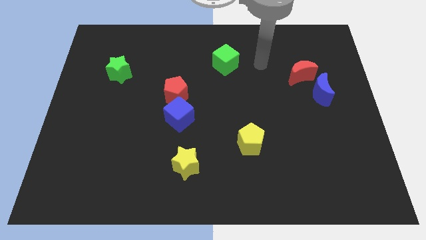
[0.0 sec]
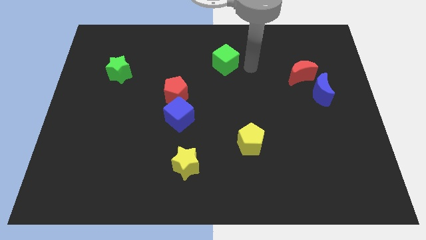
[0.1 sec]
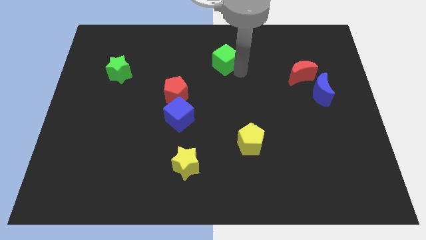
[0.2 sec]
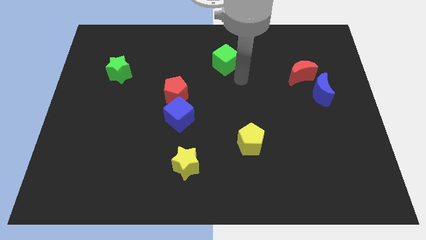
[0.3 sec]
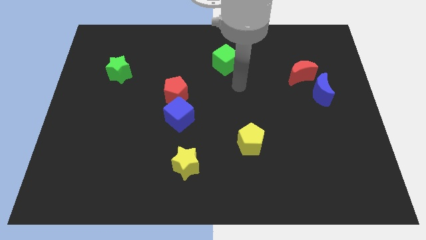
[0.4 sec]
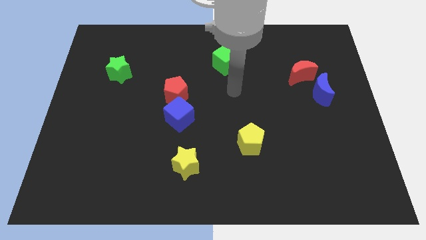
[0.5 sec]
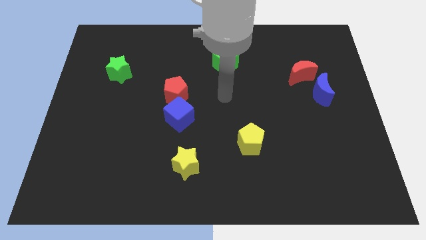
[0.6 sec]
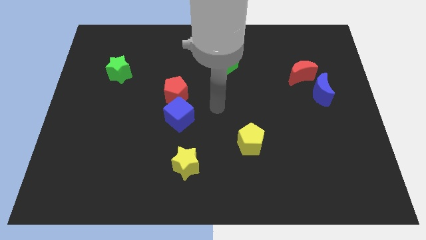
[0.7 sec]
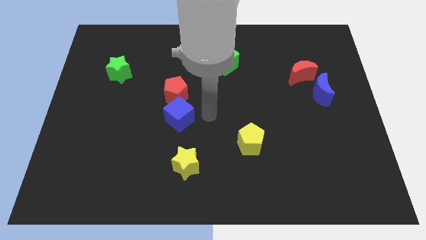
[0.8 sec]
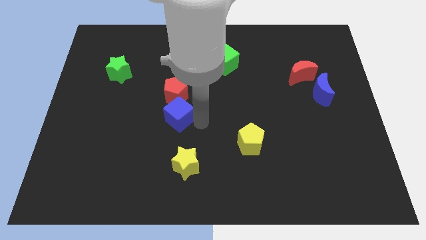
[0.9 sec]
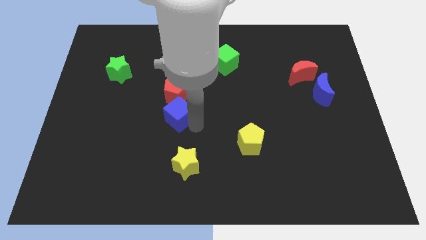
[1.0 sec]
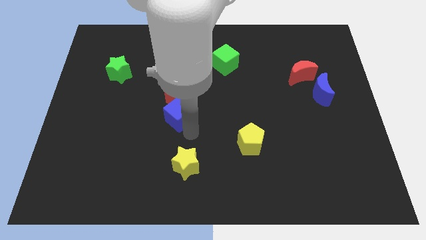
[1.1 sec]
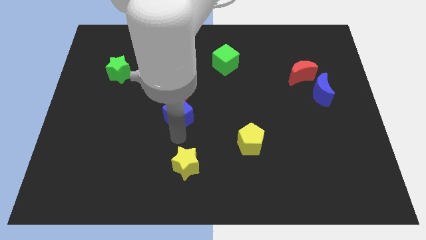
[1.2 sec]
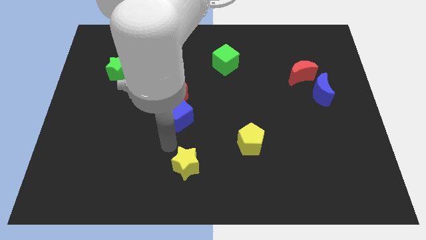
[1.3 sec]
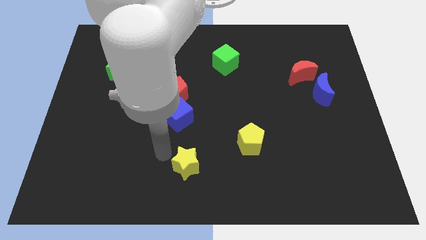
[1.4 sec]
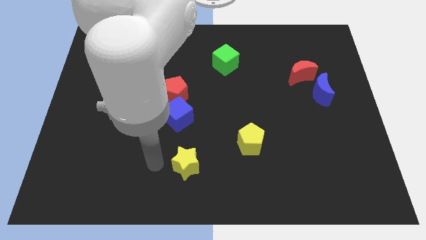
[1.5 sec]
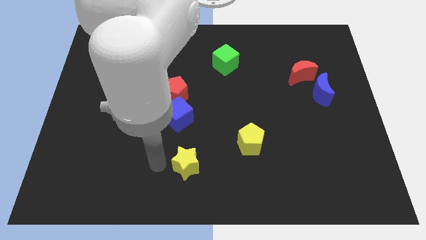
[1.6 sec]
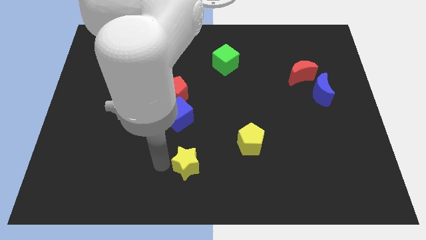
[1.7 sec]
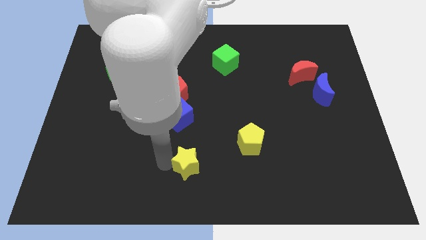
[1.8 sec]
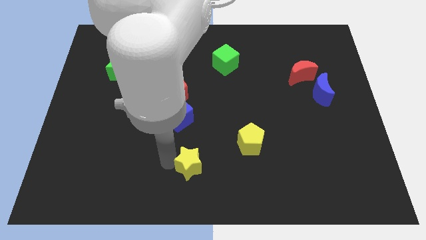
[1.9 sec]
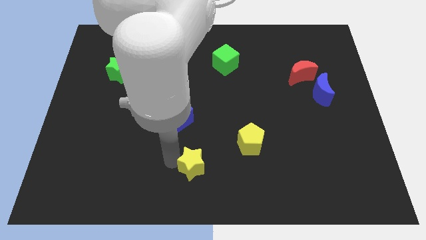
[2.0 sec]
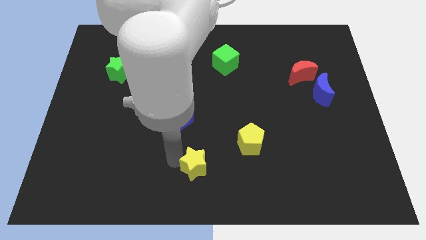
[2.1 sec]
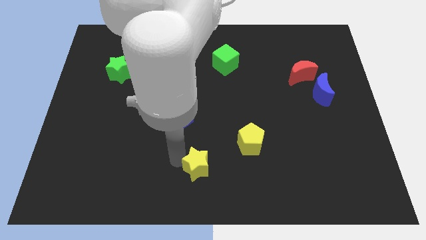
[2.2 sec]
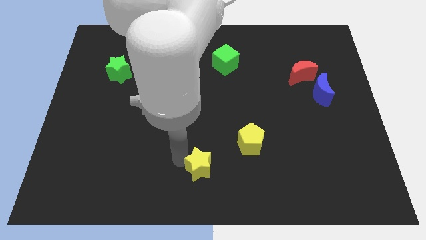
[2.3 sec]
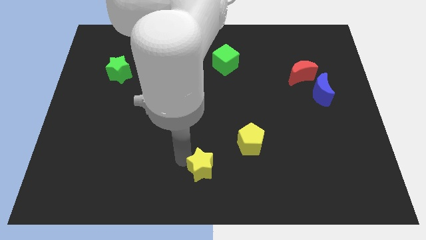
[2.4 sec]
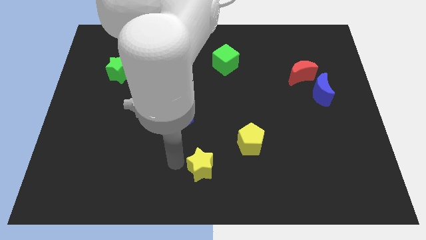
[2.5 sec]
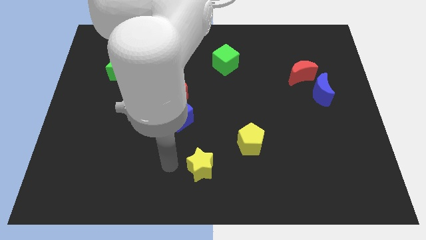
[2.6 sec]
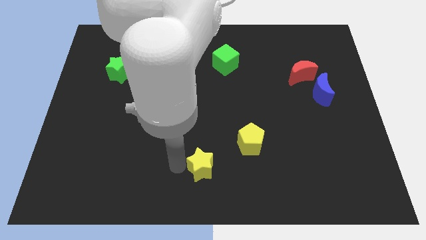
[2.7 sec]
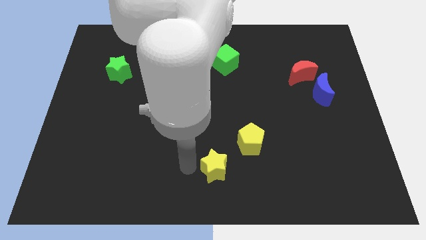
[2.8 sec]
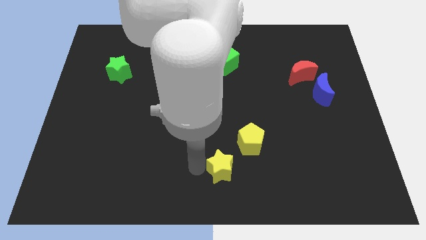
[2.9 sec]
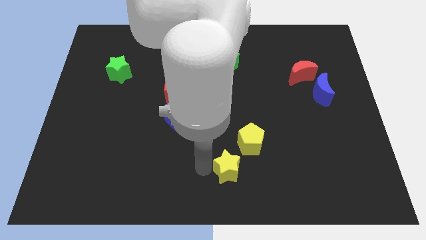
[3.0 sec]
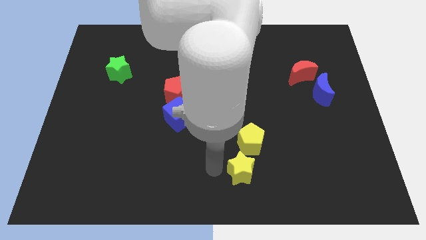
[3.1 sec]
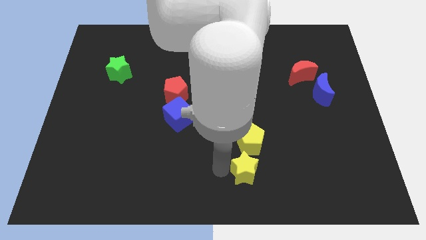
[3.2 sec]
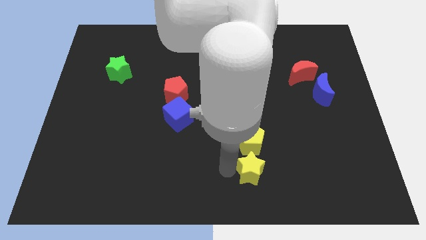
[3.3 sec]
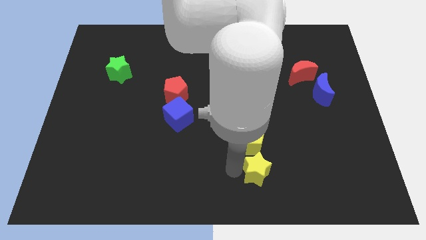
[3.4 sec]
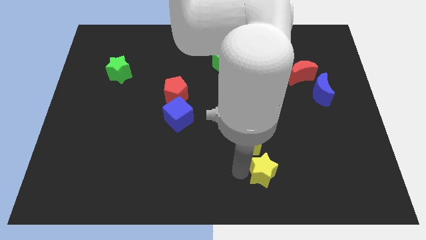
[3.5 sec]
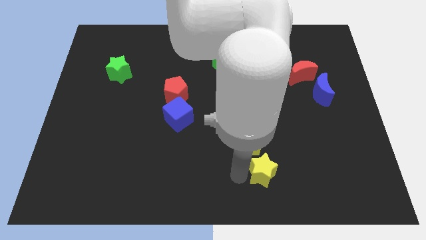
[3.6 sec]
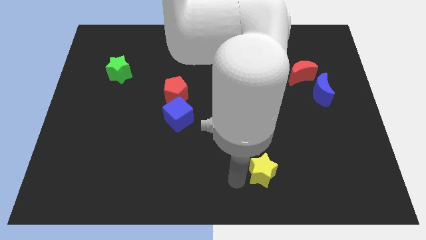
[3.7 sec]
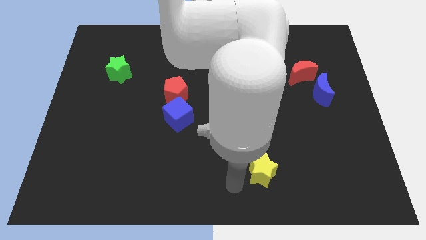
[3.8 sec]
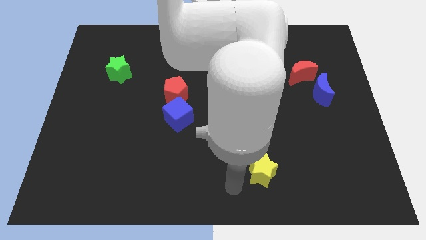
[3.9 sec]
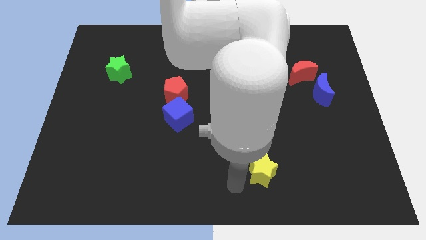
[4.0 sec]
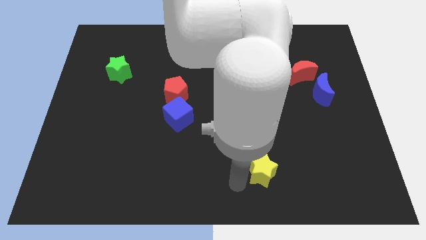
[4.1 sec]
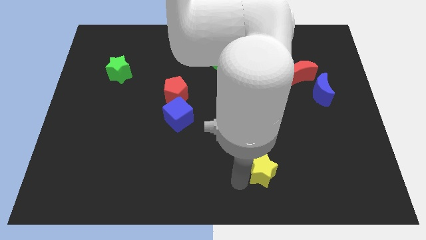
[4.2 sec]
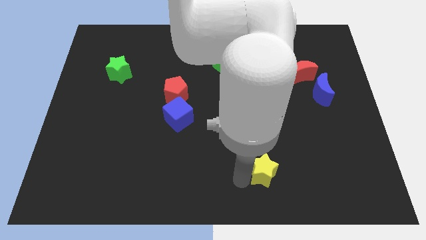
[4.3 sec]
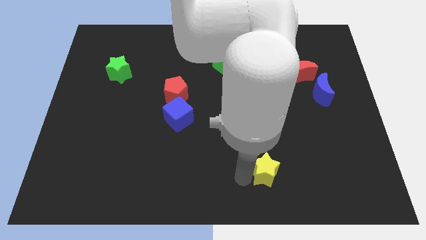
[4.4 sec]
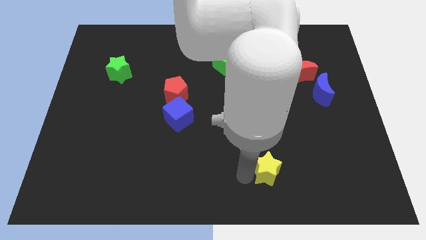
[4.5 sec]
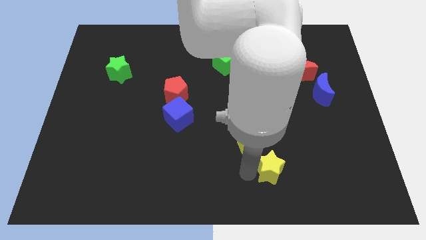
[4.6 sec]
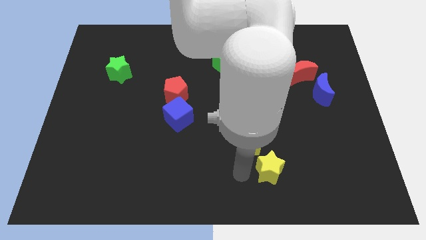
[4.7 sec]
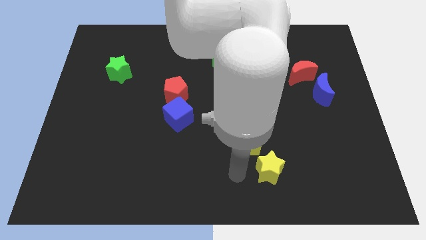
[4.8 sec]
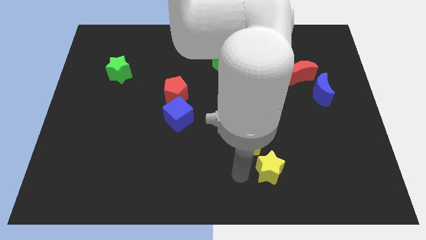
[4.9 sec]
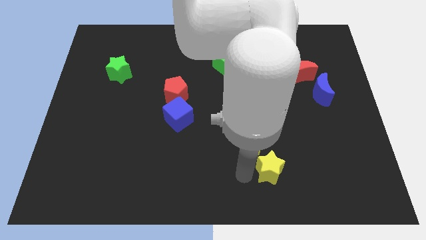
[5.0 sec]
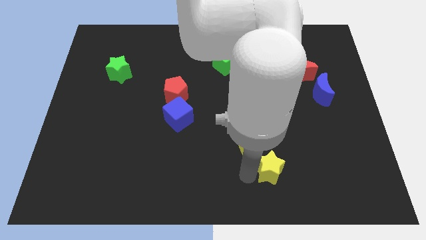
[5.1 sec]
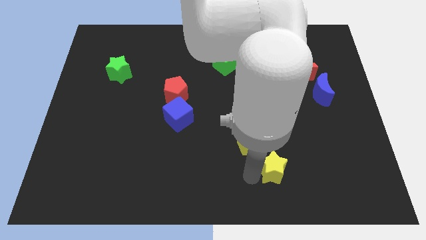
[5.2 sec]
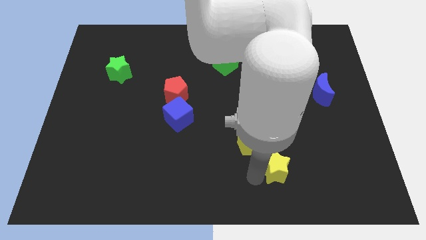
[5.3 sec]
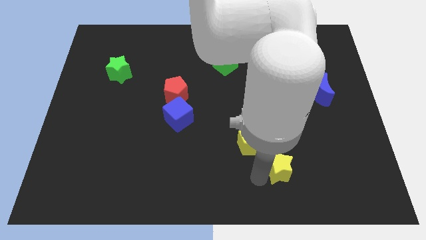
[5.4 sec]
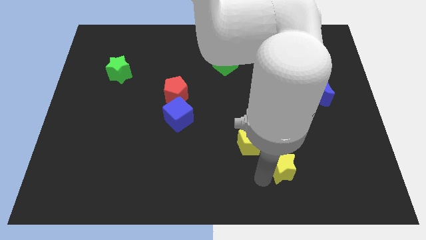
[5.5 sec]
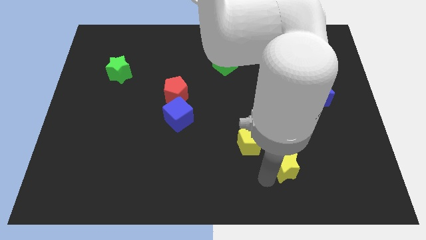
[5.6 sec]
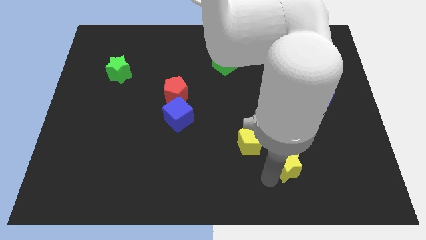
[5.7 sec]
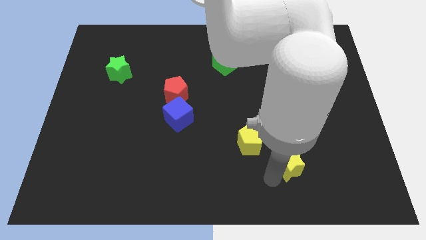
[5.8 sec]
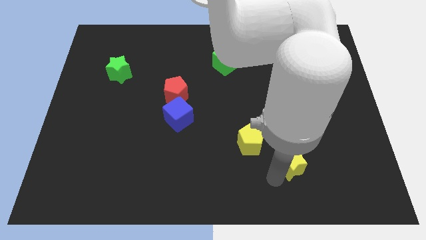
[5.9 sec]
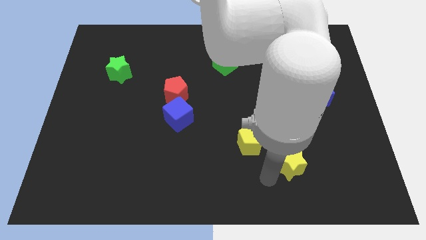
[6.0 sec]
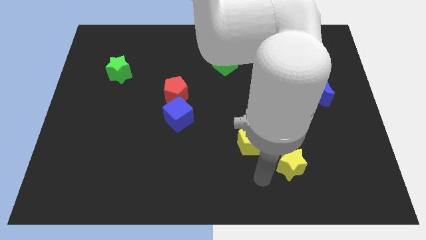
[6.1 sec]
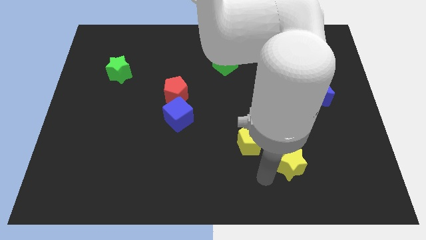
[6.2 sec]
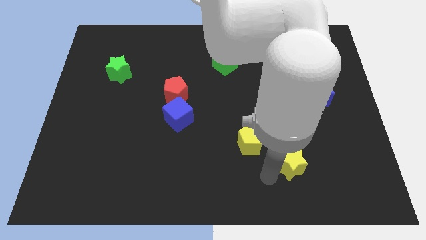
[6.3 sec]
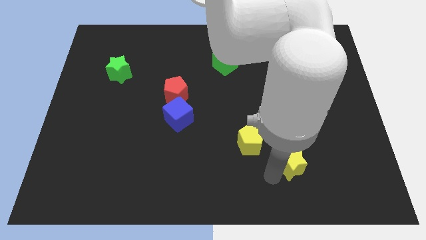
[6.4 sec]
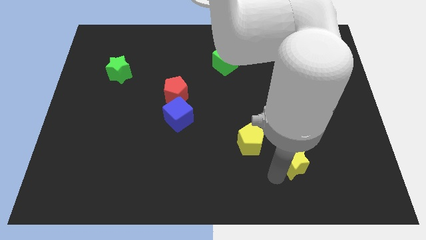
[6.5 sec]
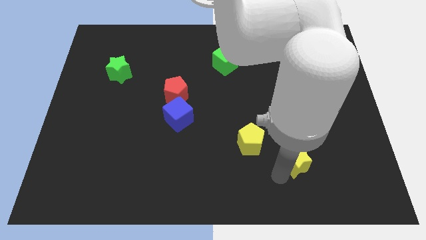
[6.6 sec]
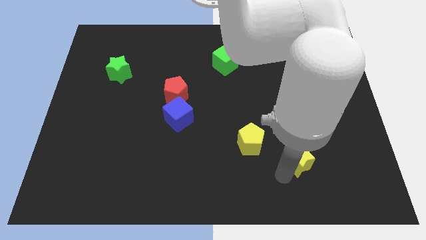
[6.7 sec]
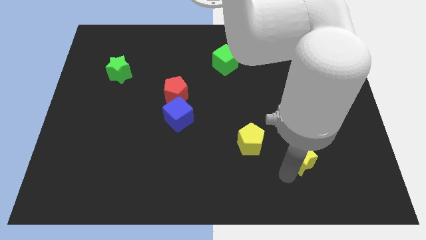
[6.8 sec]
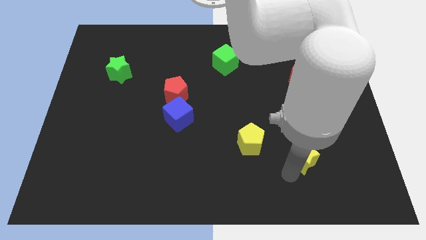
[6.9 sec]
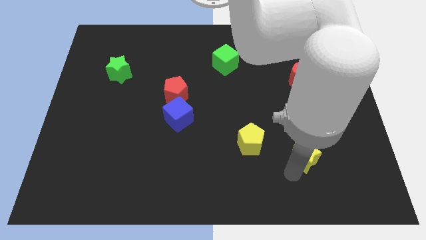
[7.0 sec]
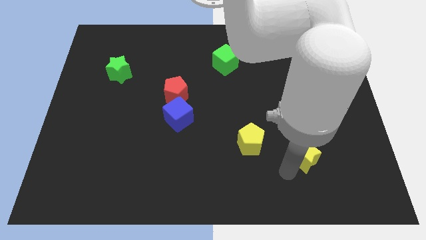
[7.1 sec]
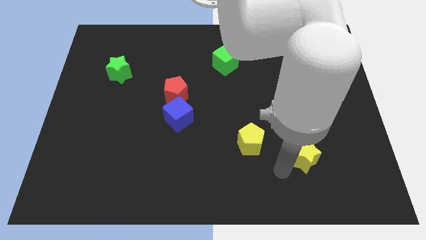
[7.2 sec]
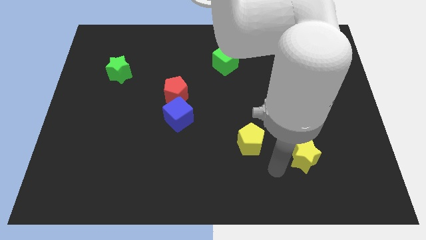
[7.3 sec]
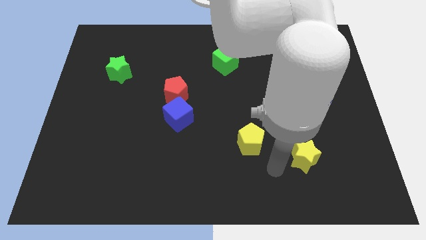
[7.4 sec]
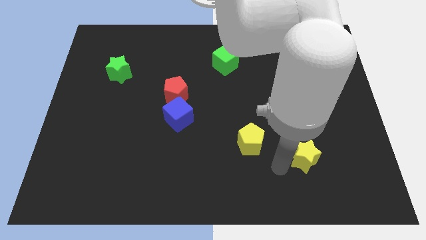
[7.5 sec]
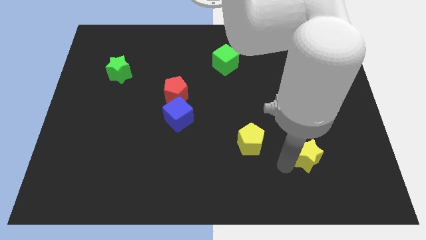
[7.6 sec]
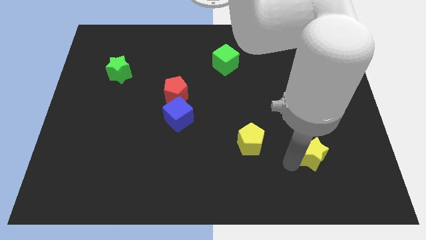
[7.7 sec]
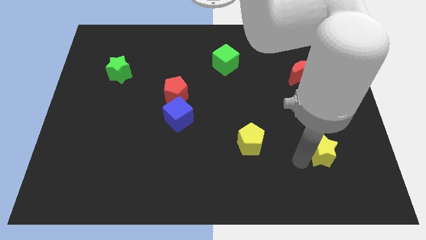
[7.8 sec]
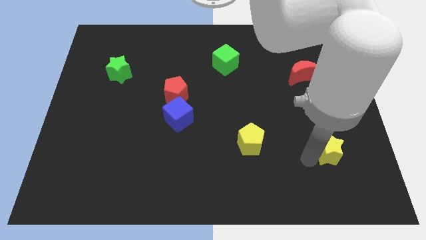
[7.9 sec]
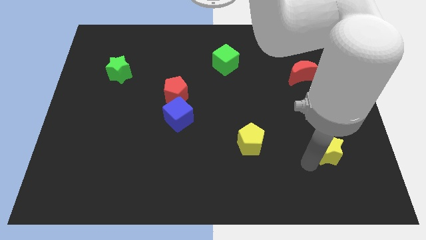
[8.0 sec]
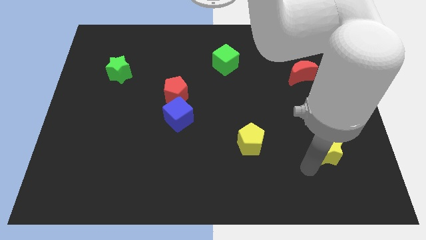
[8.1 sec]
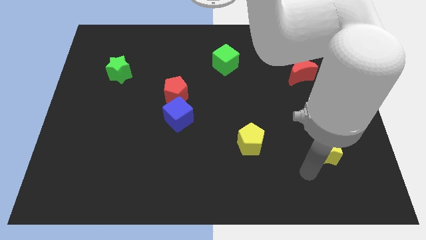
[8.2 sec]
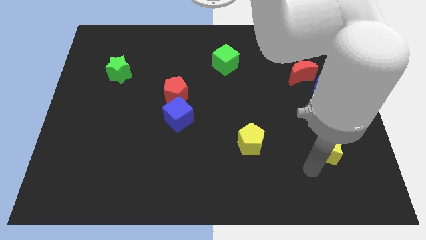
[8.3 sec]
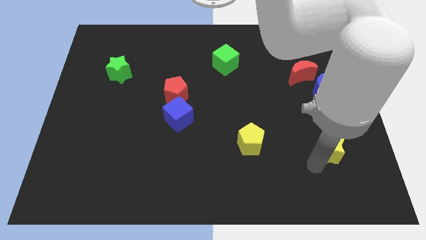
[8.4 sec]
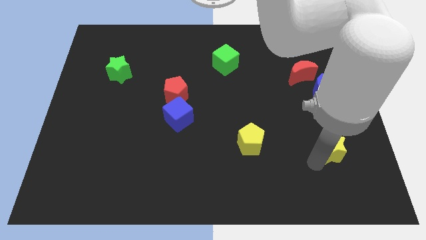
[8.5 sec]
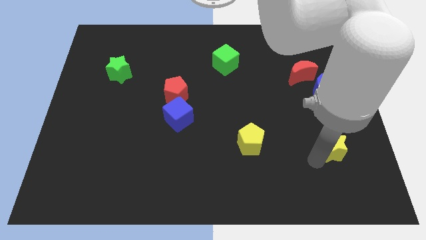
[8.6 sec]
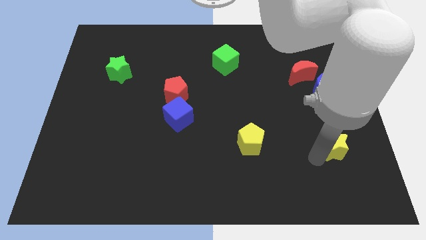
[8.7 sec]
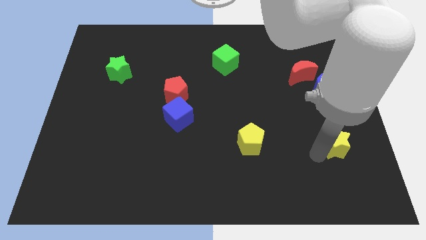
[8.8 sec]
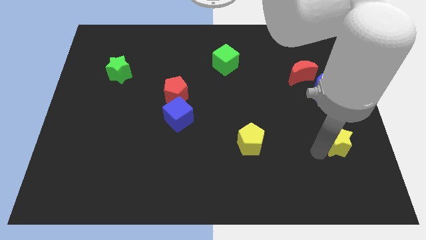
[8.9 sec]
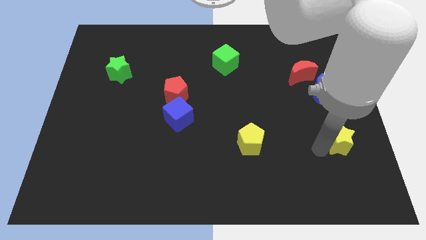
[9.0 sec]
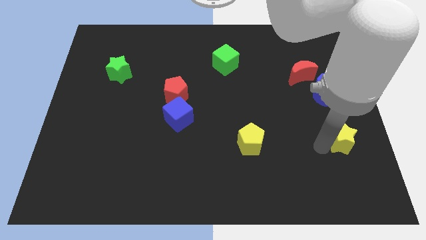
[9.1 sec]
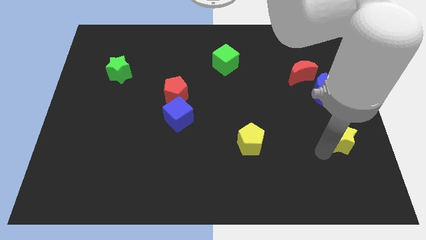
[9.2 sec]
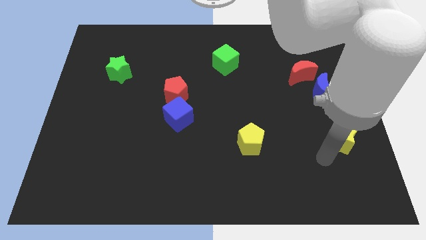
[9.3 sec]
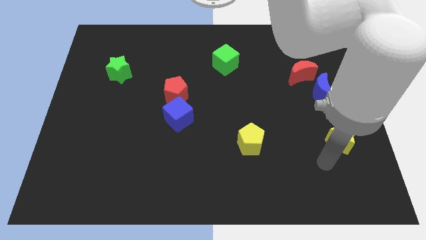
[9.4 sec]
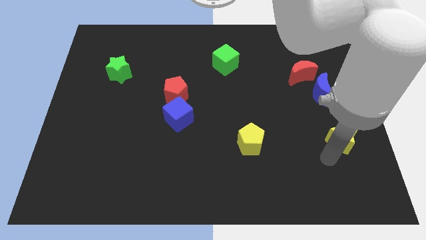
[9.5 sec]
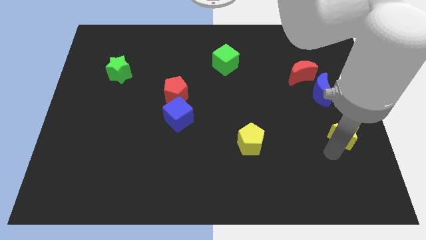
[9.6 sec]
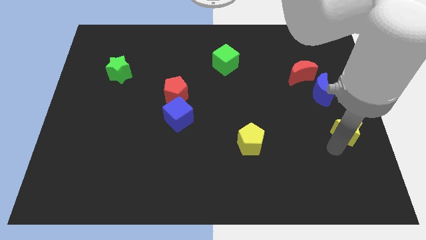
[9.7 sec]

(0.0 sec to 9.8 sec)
push the yellow star to the center right
